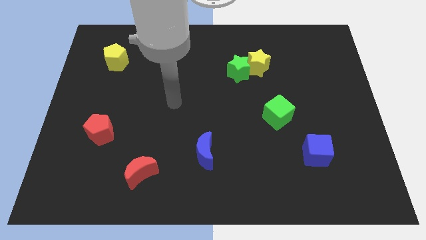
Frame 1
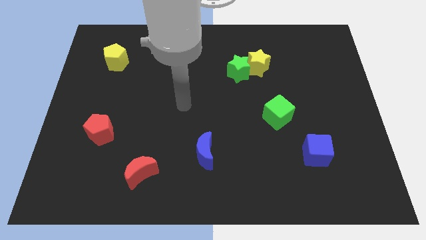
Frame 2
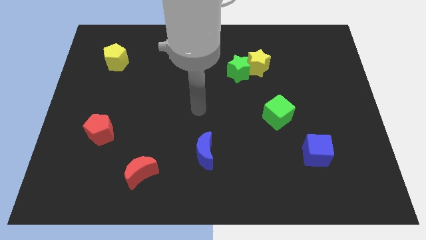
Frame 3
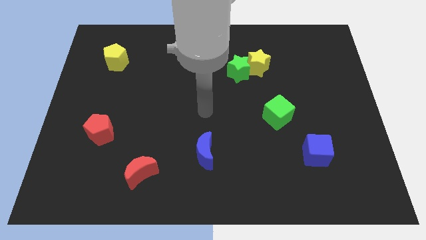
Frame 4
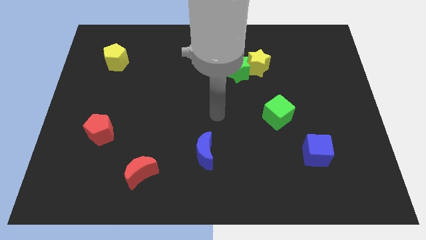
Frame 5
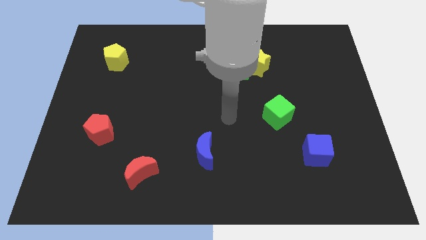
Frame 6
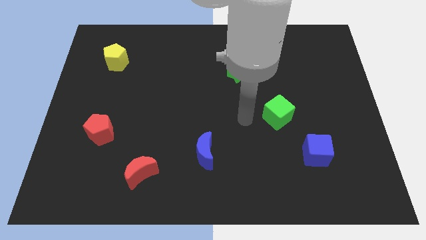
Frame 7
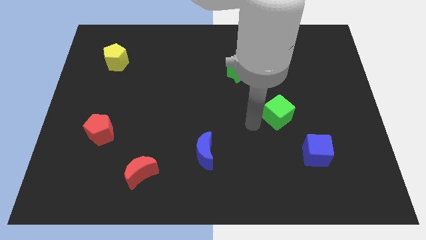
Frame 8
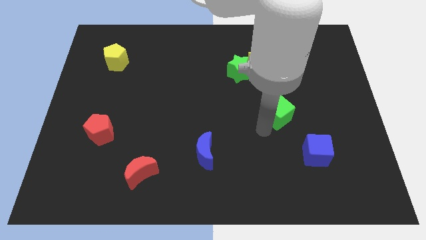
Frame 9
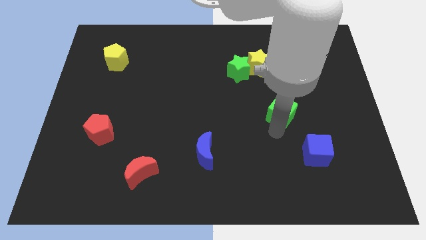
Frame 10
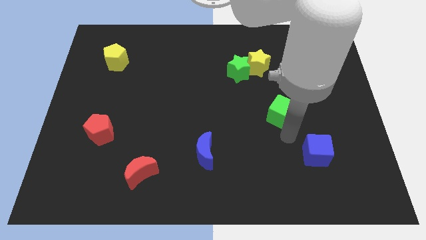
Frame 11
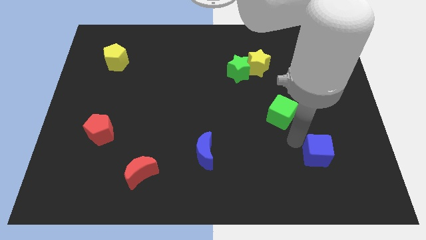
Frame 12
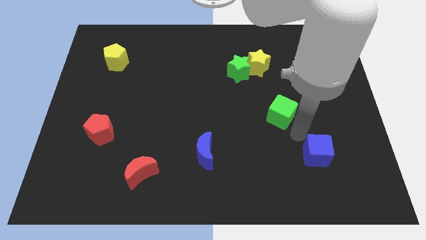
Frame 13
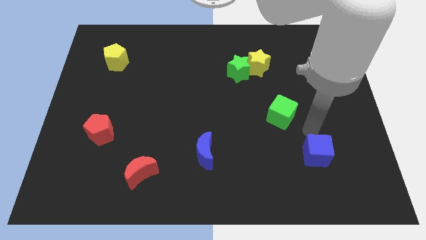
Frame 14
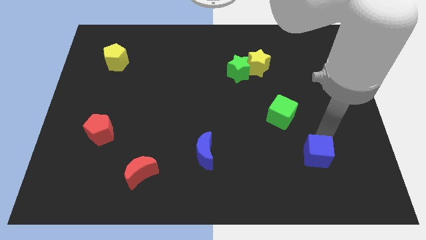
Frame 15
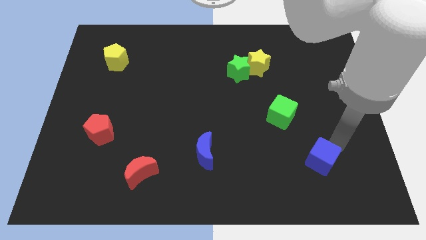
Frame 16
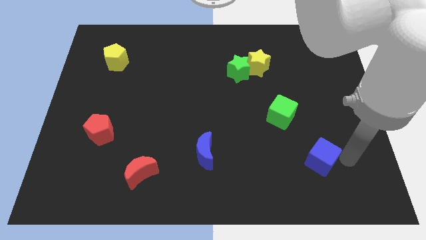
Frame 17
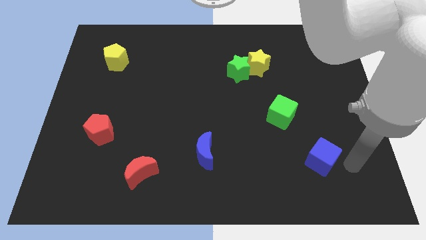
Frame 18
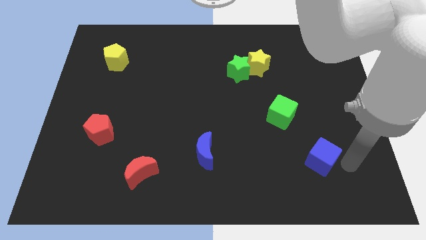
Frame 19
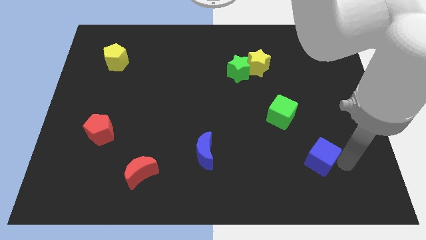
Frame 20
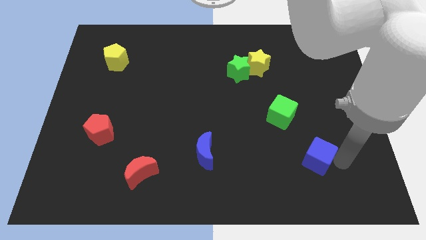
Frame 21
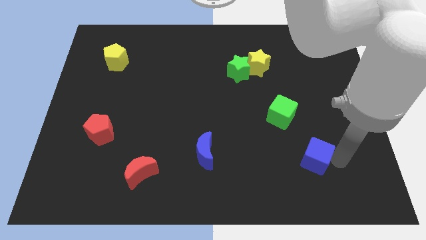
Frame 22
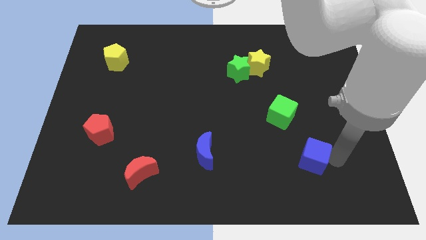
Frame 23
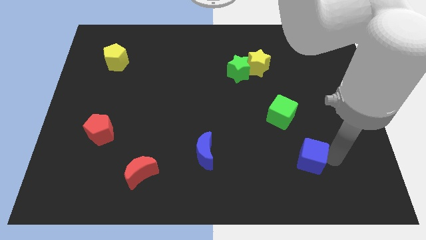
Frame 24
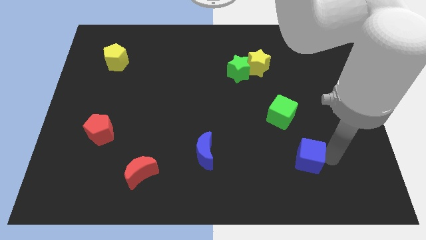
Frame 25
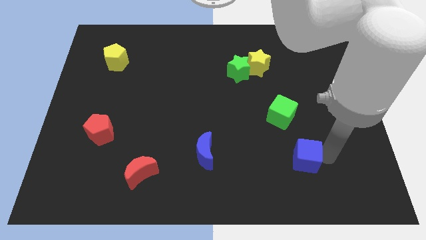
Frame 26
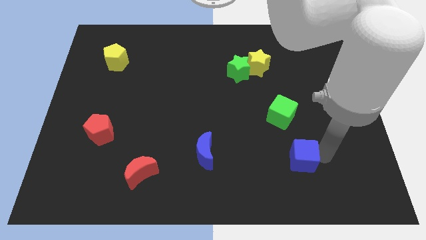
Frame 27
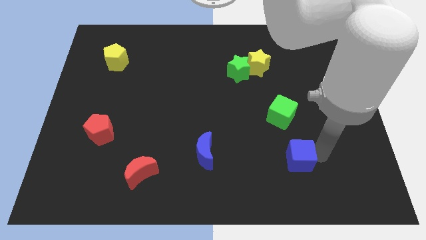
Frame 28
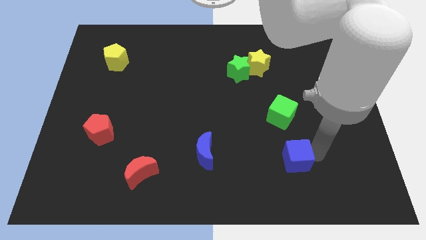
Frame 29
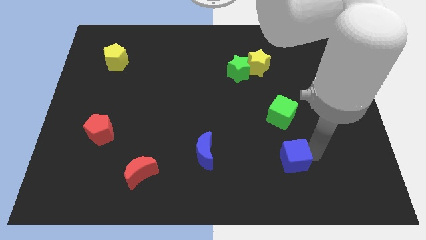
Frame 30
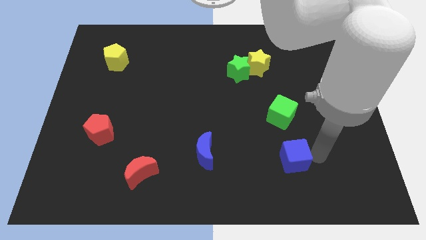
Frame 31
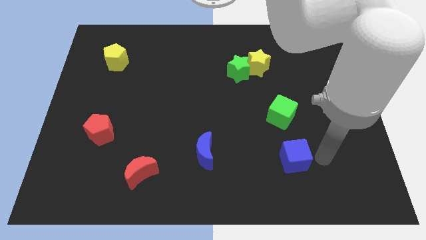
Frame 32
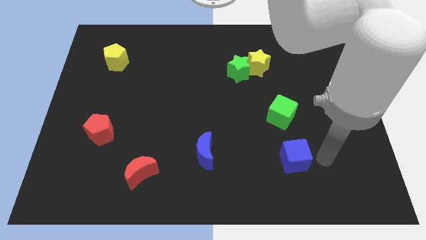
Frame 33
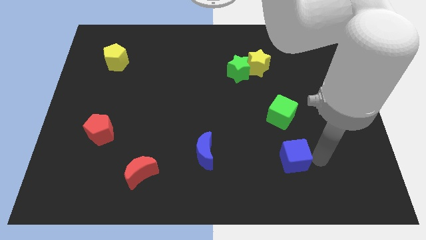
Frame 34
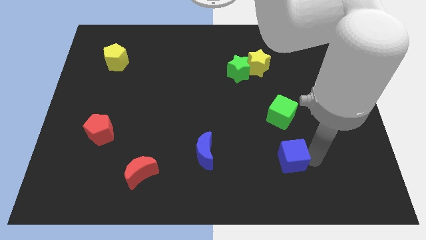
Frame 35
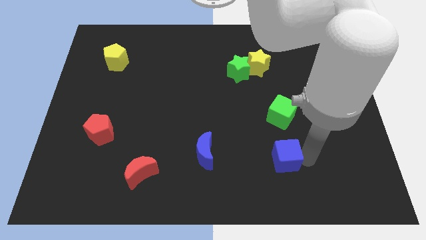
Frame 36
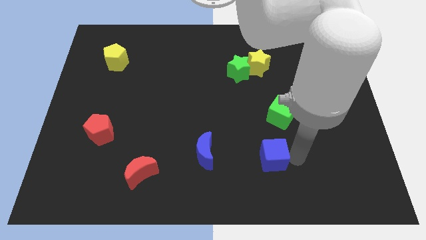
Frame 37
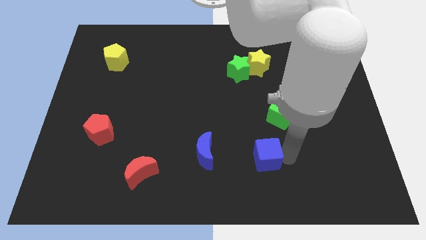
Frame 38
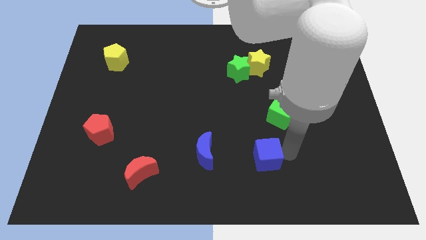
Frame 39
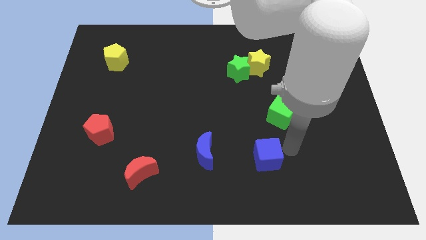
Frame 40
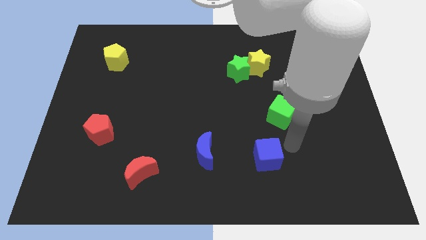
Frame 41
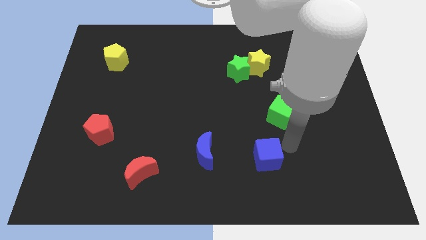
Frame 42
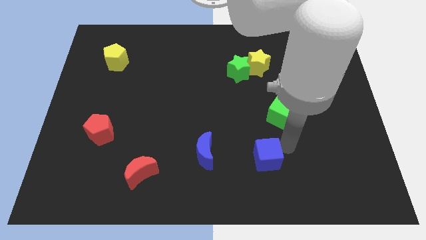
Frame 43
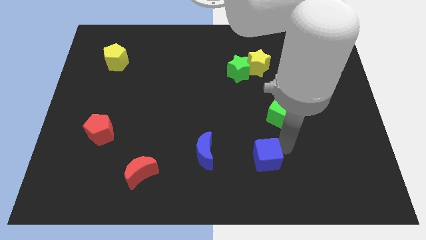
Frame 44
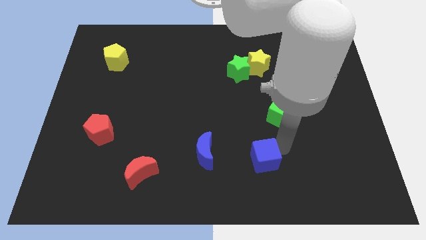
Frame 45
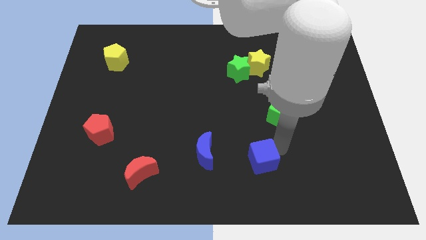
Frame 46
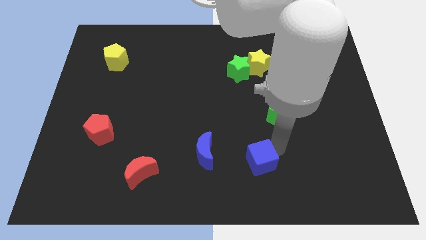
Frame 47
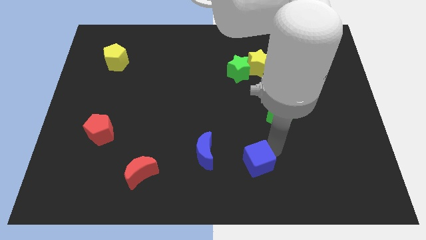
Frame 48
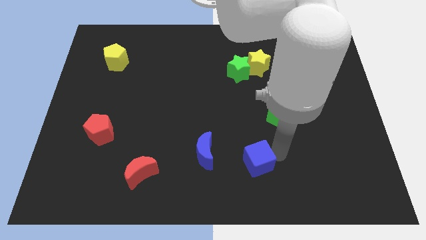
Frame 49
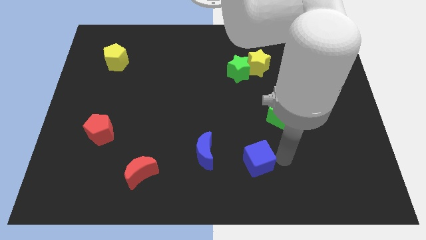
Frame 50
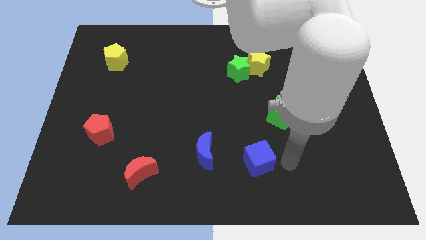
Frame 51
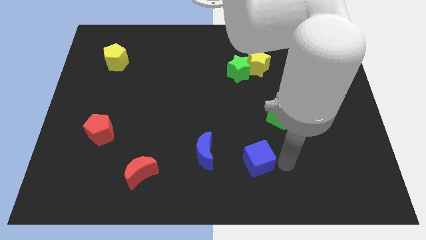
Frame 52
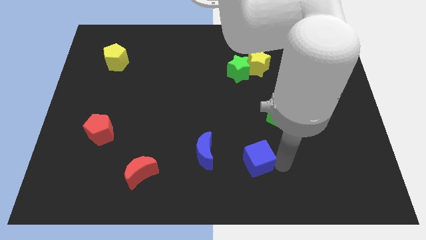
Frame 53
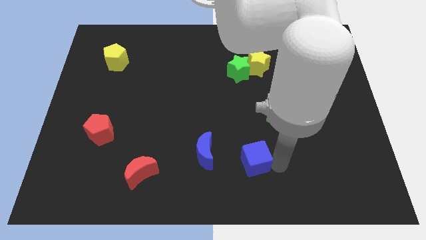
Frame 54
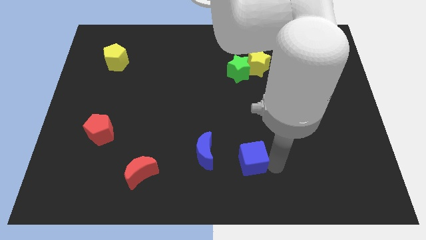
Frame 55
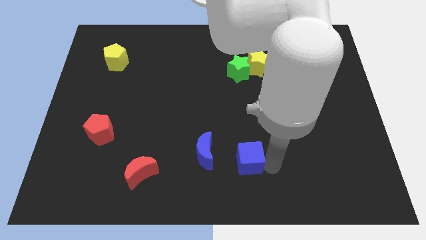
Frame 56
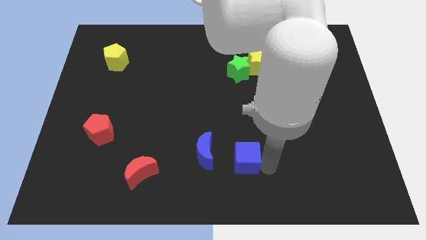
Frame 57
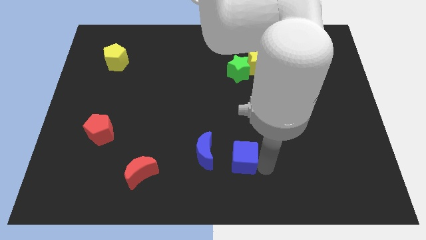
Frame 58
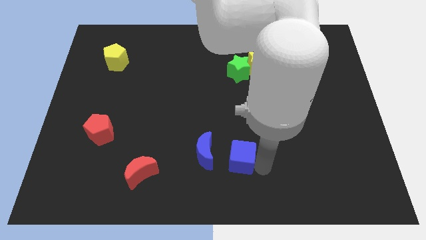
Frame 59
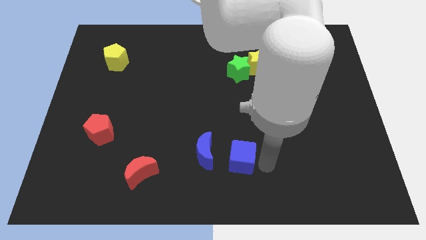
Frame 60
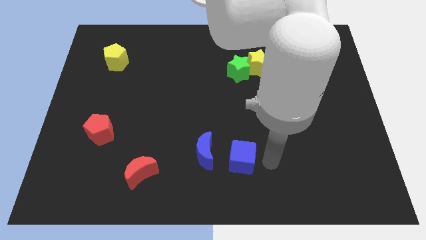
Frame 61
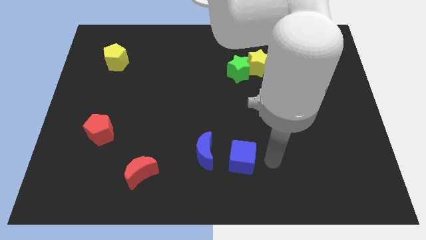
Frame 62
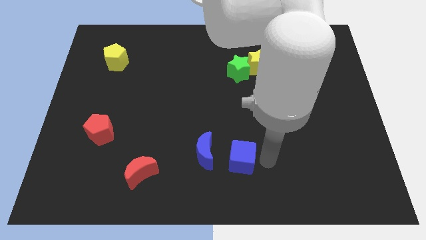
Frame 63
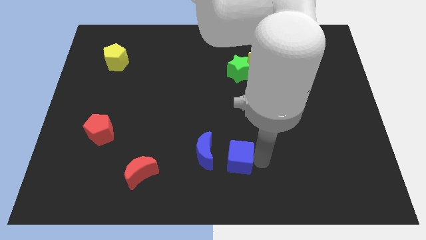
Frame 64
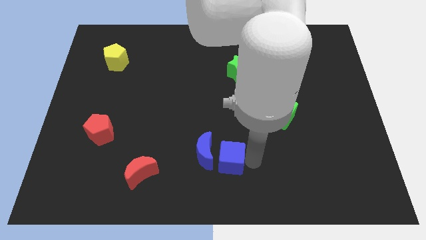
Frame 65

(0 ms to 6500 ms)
slide the blue cube to the blue moon

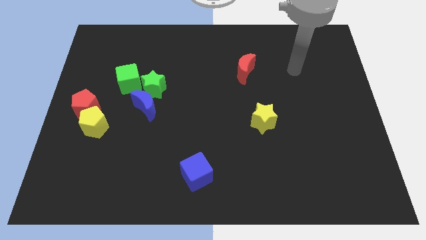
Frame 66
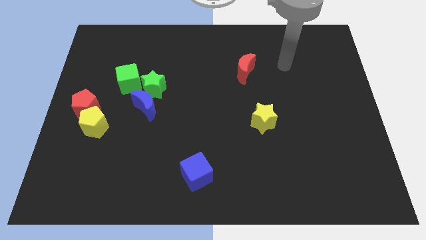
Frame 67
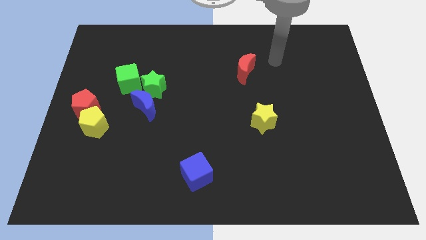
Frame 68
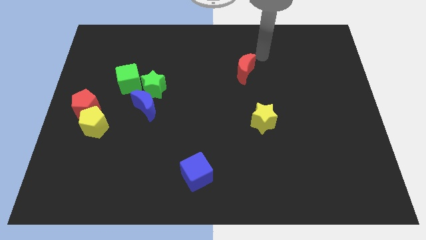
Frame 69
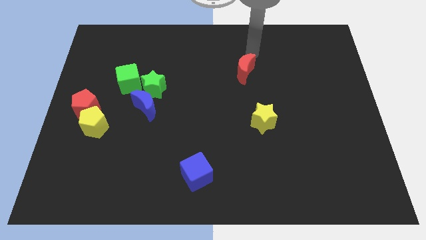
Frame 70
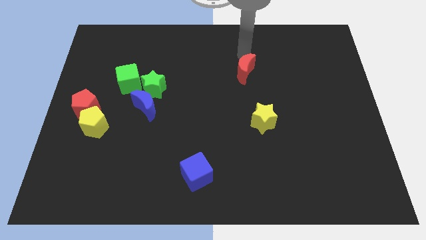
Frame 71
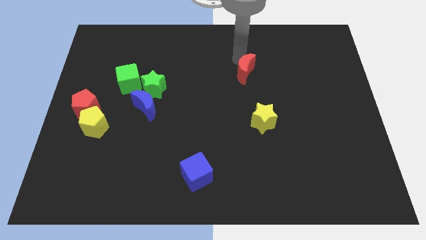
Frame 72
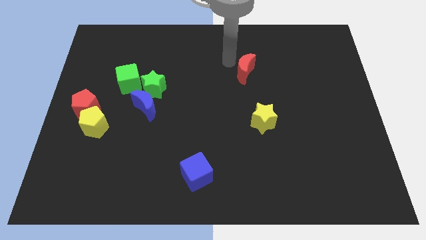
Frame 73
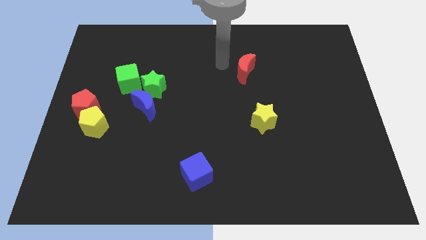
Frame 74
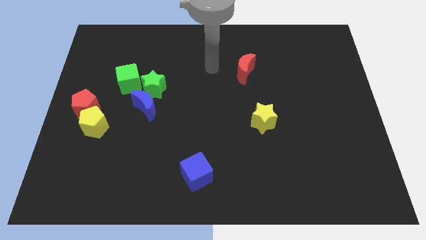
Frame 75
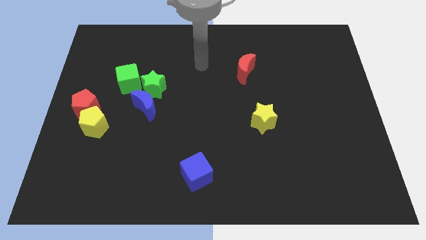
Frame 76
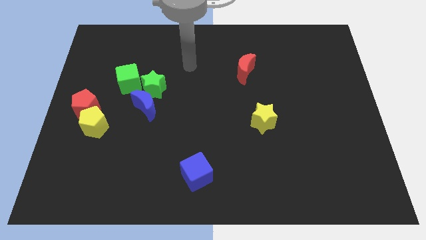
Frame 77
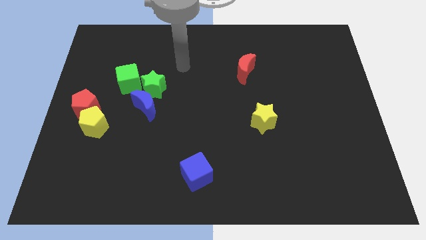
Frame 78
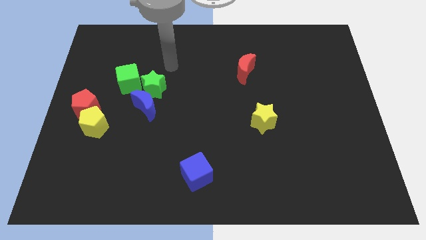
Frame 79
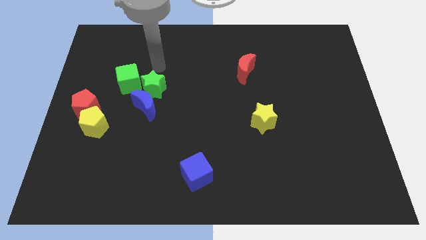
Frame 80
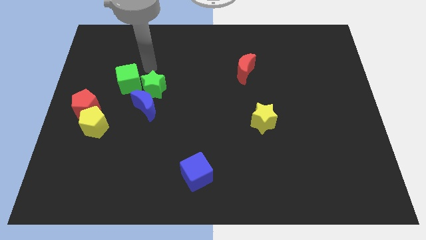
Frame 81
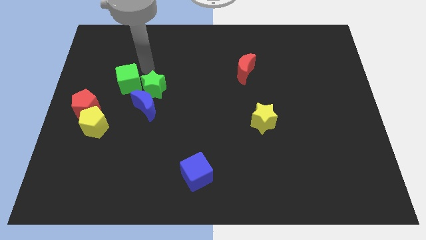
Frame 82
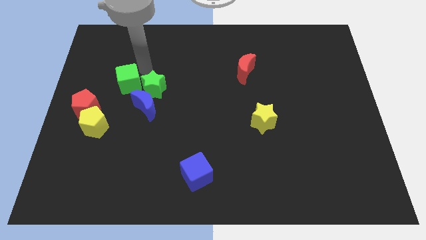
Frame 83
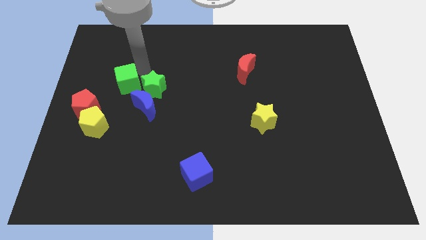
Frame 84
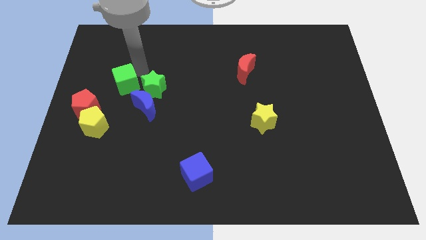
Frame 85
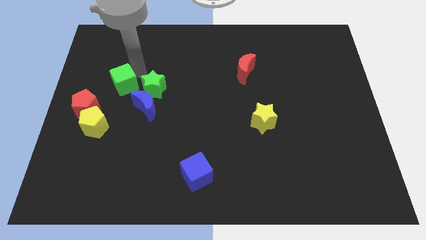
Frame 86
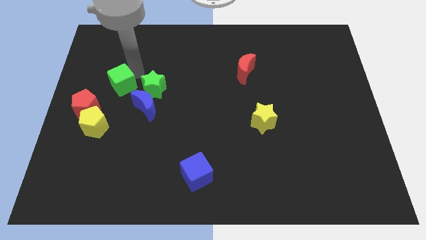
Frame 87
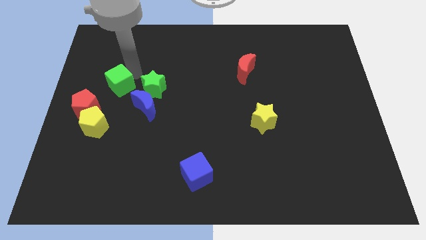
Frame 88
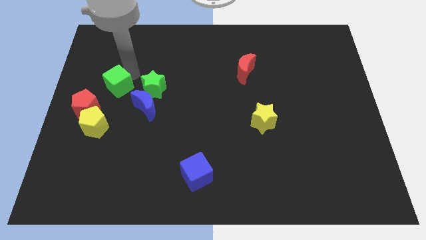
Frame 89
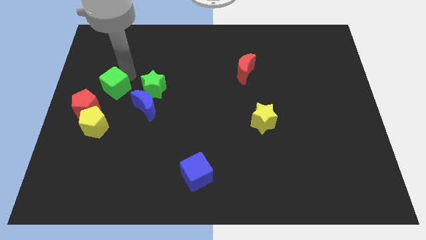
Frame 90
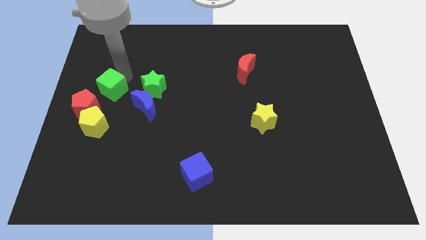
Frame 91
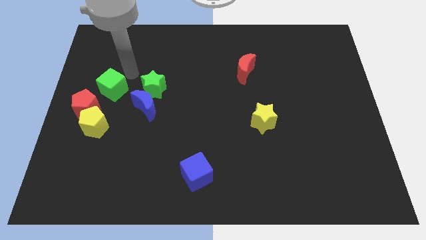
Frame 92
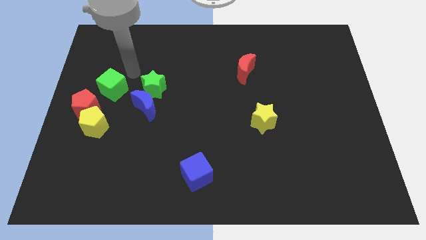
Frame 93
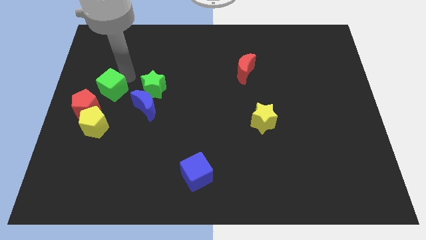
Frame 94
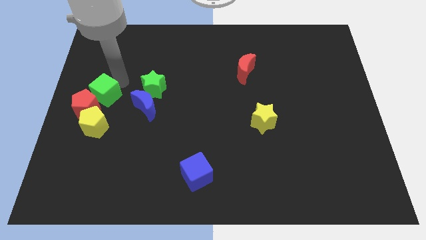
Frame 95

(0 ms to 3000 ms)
move the green cube next to the red pentagon
